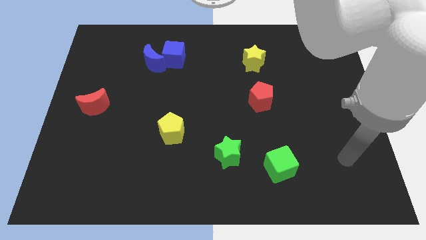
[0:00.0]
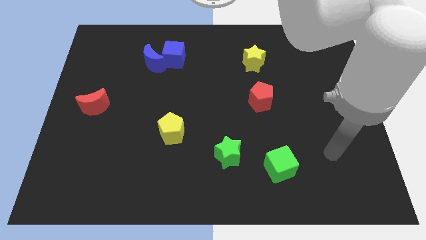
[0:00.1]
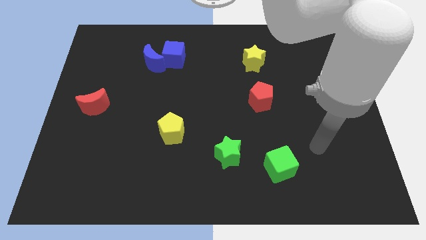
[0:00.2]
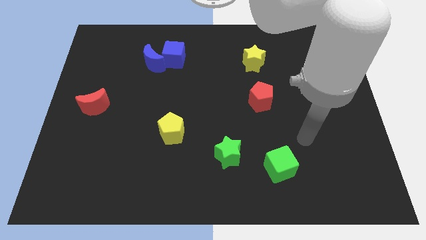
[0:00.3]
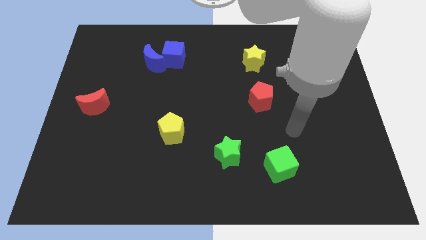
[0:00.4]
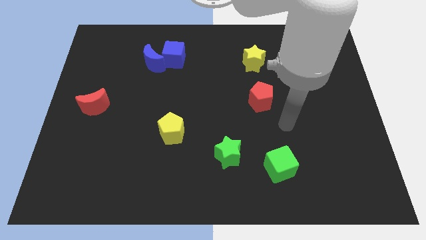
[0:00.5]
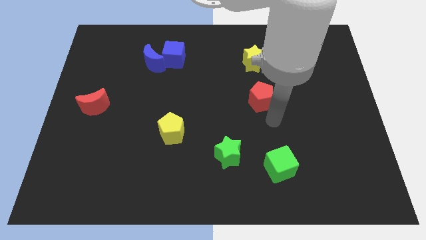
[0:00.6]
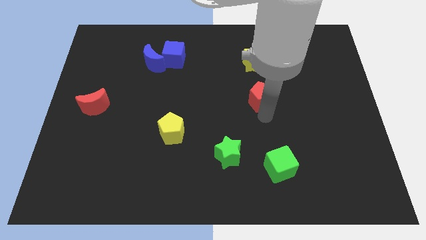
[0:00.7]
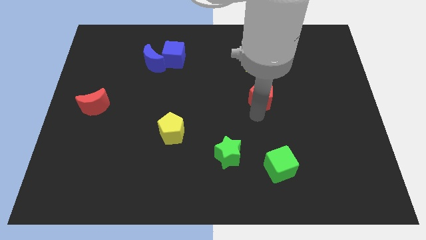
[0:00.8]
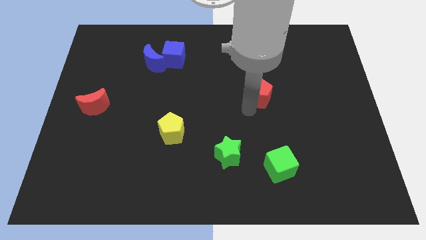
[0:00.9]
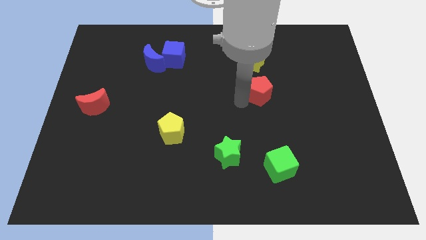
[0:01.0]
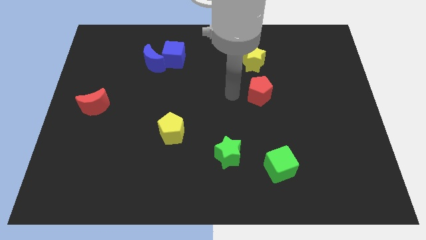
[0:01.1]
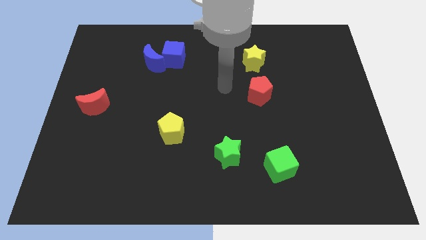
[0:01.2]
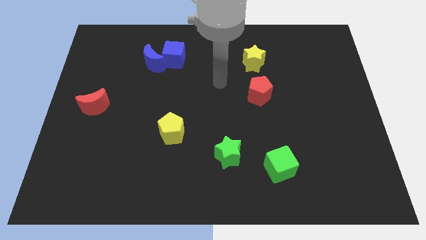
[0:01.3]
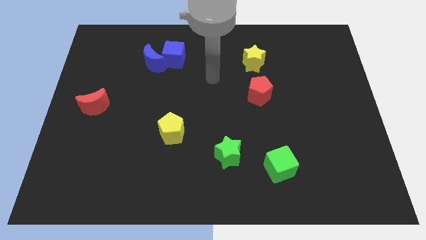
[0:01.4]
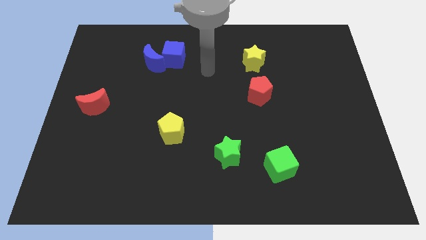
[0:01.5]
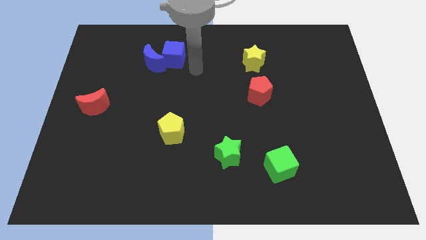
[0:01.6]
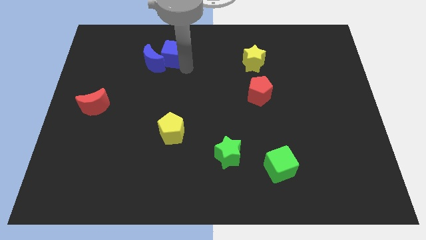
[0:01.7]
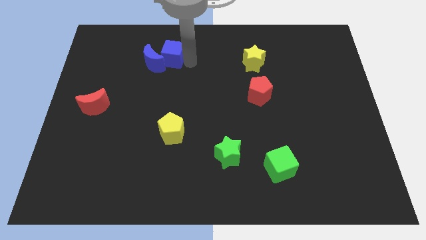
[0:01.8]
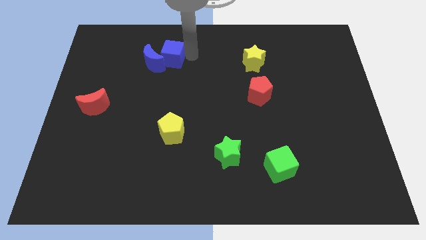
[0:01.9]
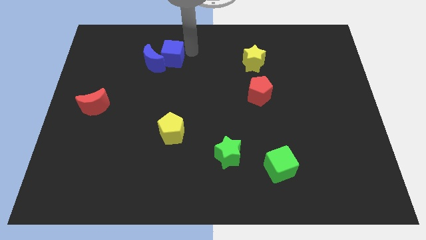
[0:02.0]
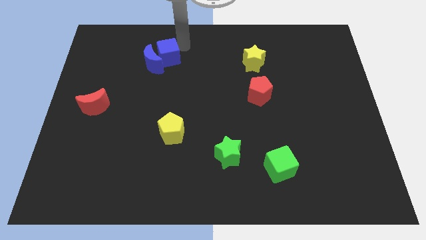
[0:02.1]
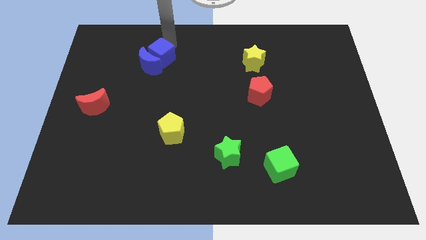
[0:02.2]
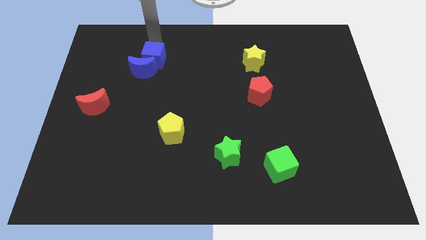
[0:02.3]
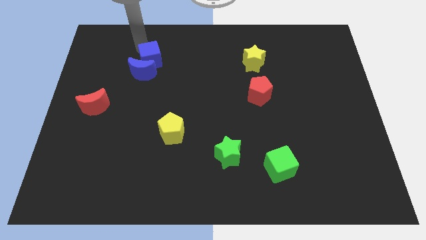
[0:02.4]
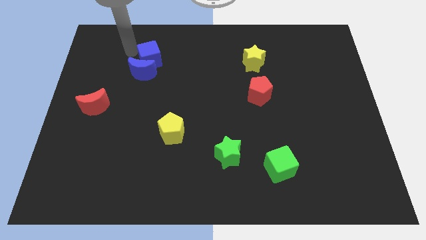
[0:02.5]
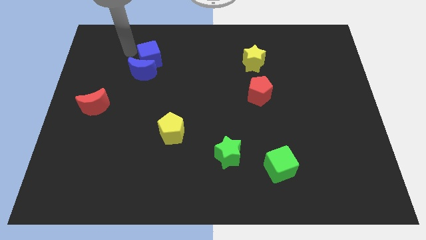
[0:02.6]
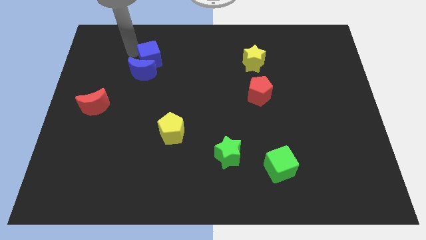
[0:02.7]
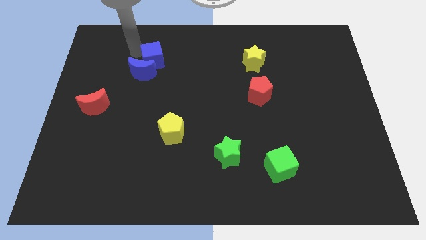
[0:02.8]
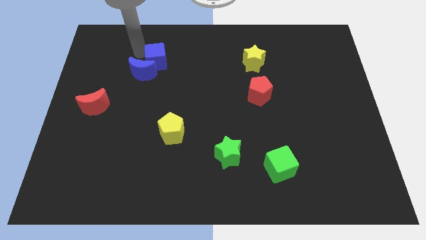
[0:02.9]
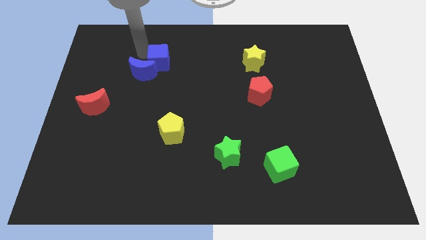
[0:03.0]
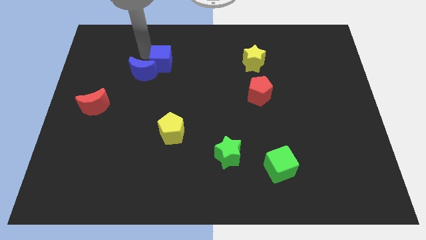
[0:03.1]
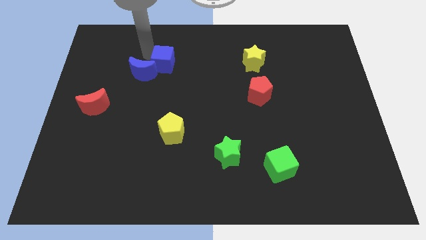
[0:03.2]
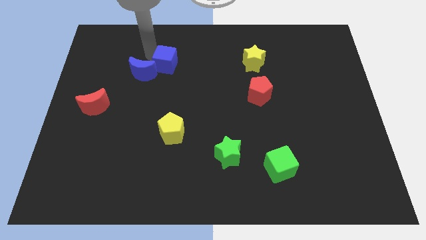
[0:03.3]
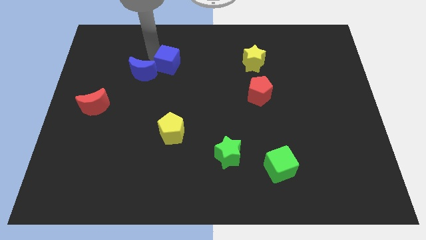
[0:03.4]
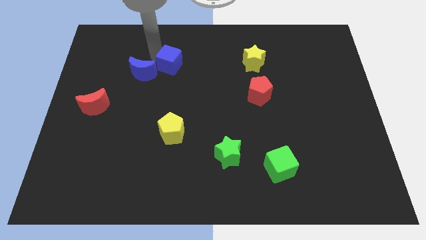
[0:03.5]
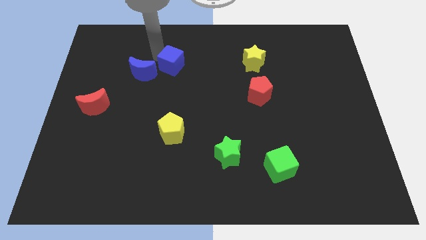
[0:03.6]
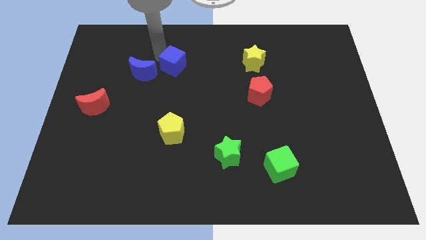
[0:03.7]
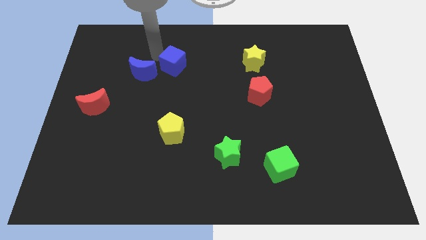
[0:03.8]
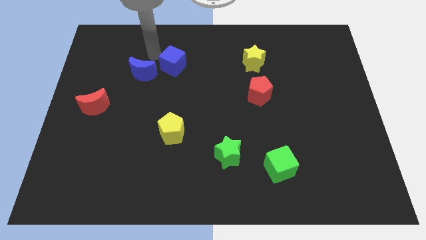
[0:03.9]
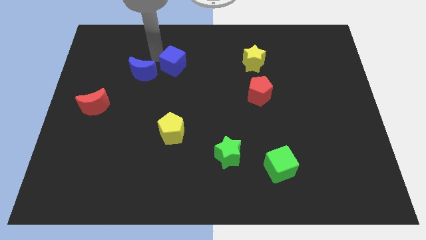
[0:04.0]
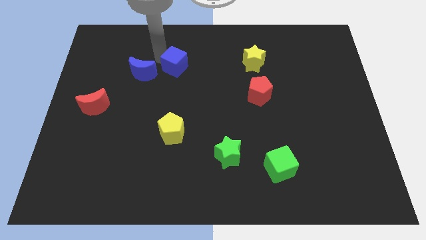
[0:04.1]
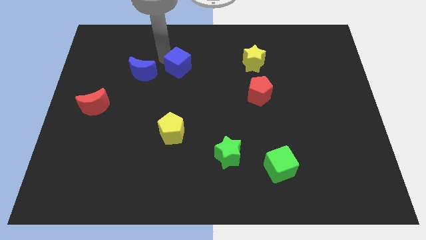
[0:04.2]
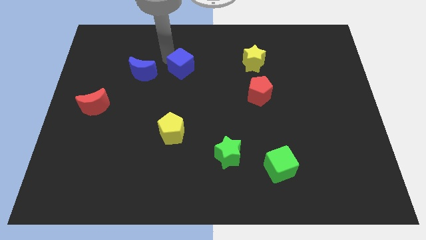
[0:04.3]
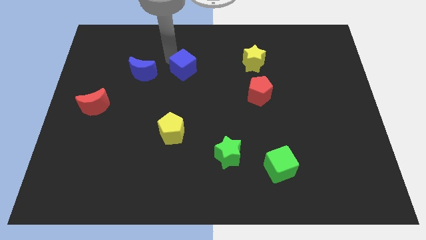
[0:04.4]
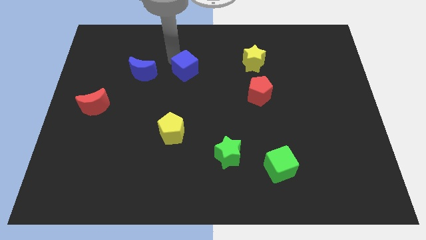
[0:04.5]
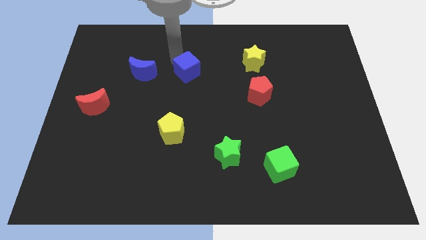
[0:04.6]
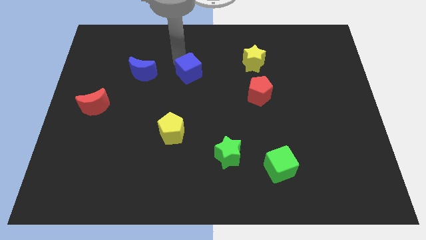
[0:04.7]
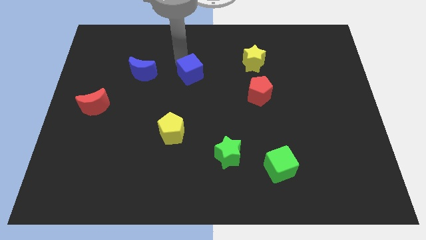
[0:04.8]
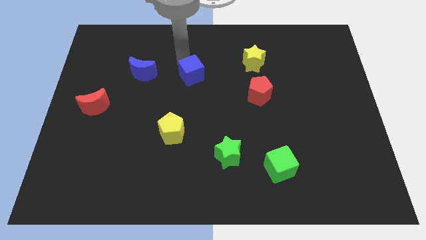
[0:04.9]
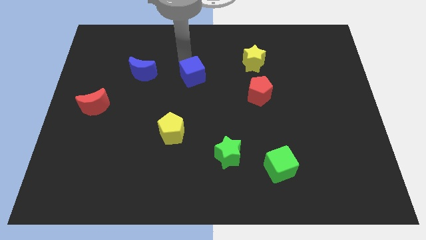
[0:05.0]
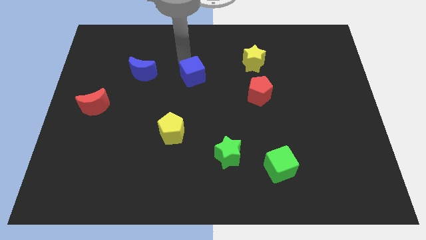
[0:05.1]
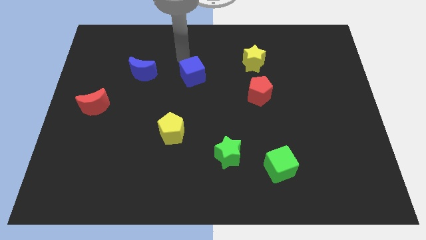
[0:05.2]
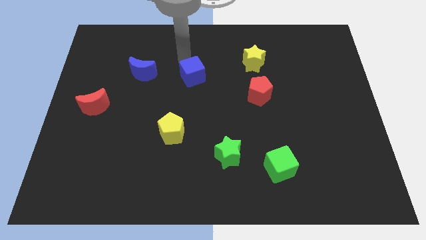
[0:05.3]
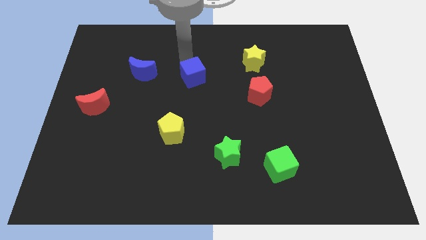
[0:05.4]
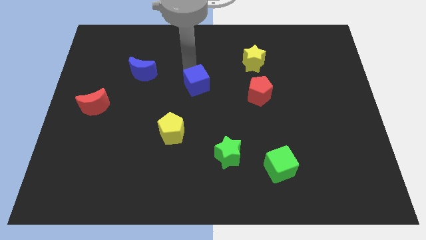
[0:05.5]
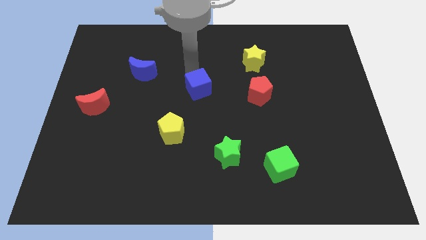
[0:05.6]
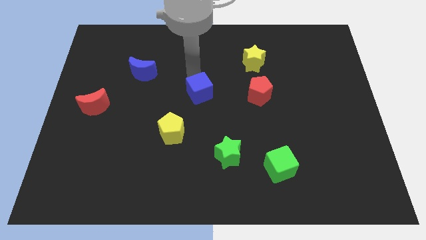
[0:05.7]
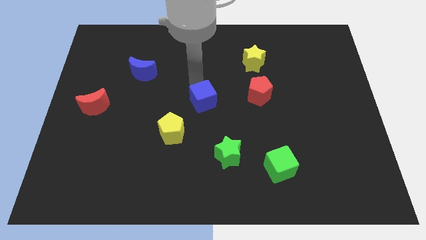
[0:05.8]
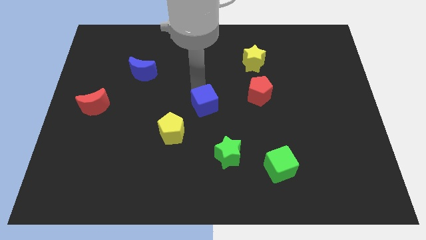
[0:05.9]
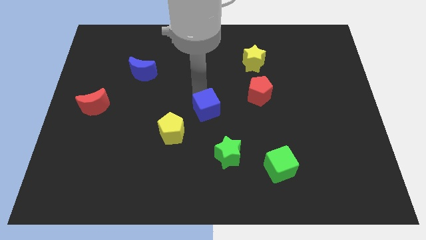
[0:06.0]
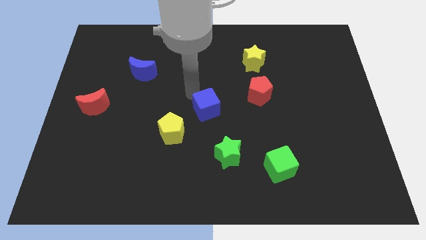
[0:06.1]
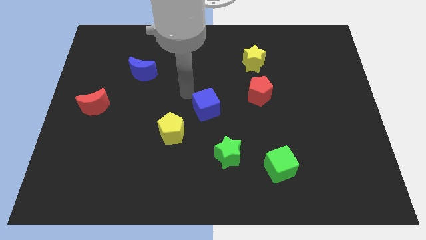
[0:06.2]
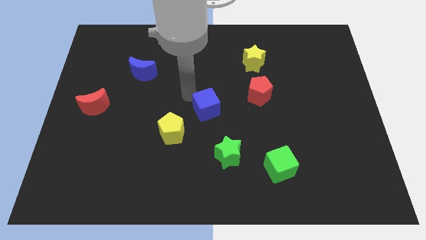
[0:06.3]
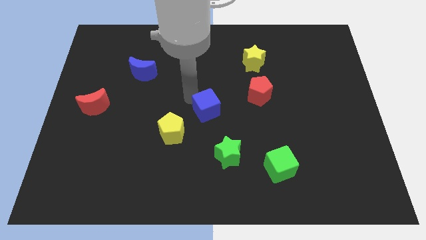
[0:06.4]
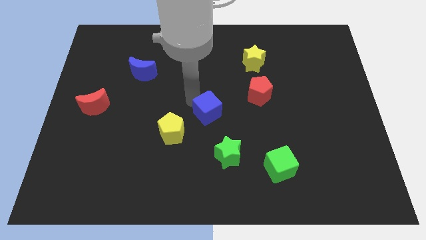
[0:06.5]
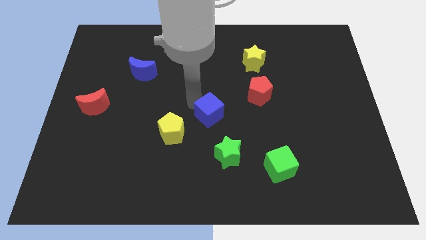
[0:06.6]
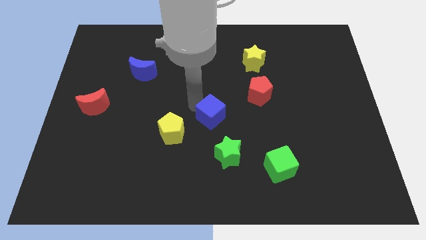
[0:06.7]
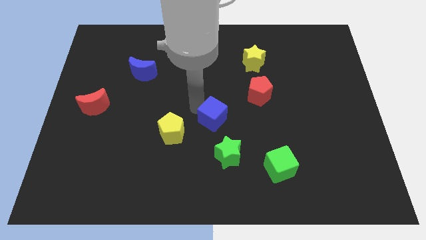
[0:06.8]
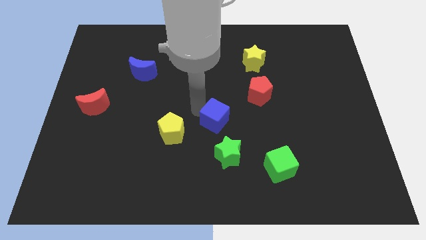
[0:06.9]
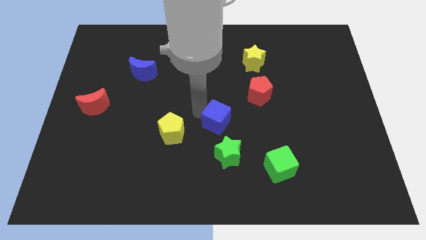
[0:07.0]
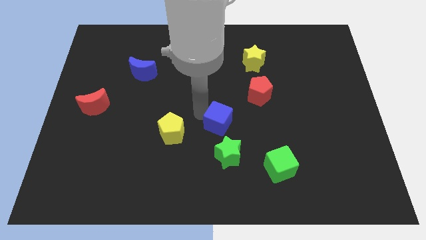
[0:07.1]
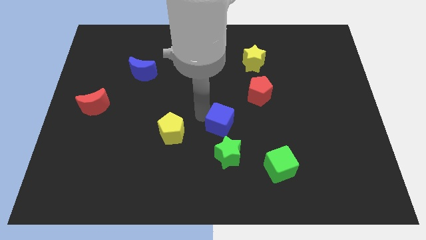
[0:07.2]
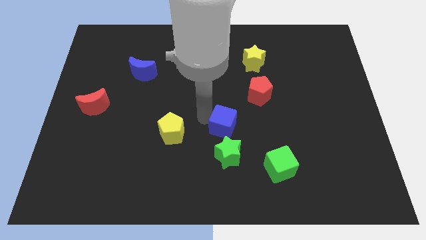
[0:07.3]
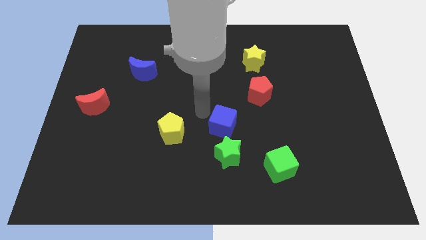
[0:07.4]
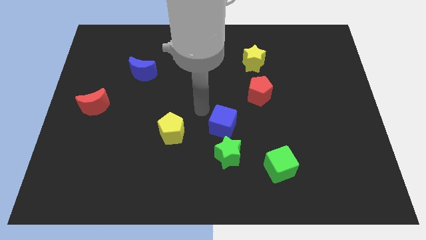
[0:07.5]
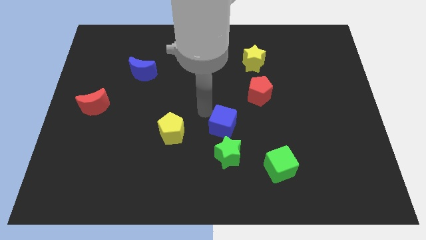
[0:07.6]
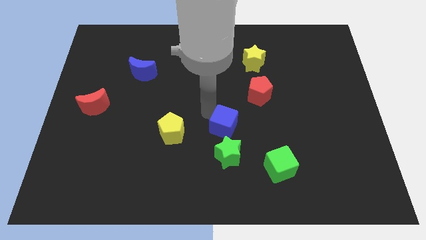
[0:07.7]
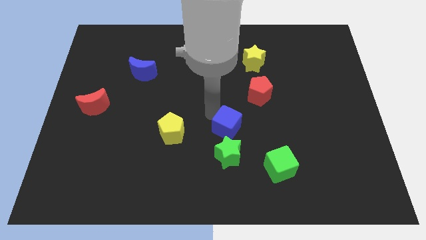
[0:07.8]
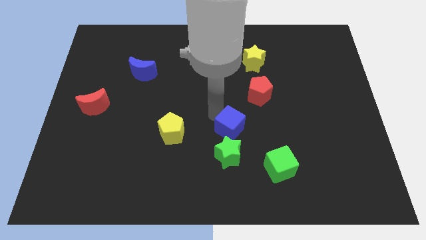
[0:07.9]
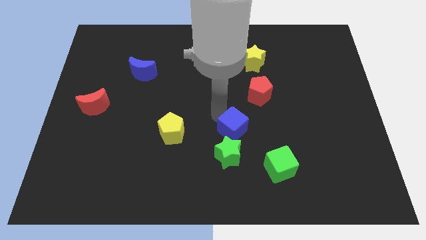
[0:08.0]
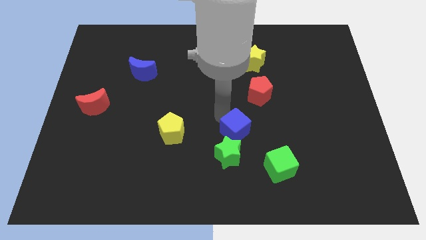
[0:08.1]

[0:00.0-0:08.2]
put the blue cube diagonally up and to the left of the green cube
